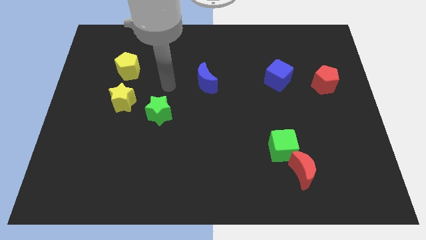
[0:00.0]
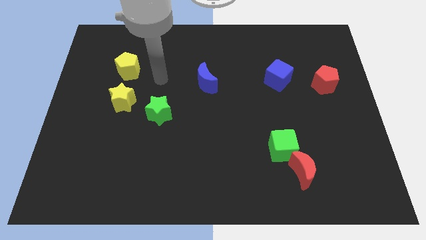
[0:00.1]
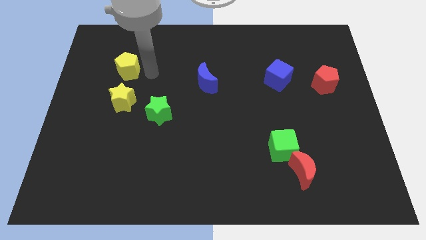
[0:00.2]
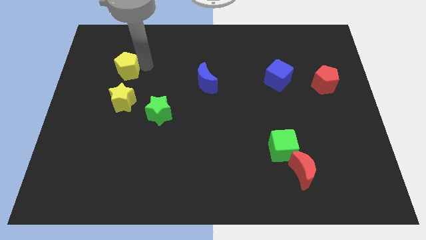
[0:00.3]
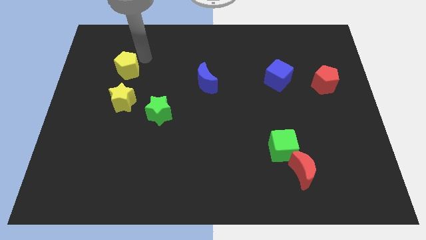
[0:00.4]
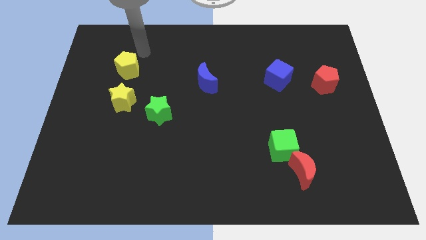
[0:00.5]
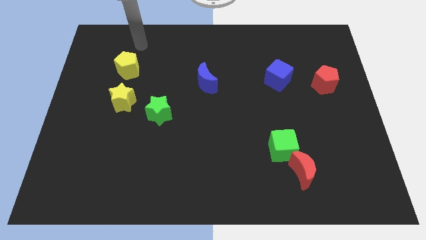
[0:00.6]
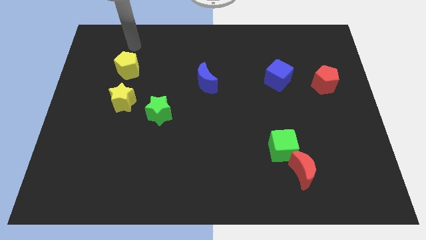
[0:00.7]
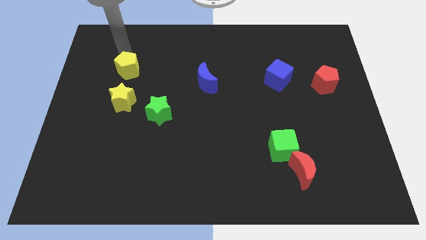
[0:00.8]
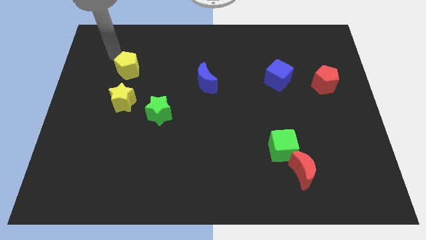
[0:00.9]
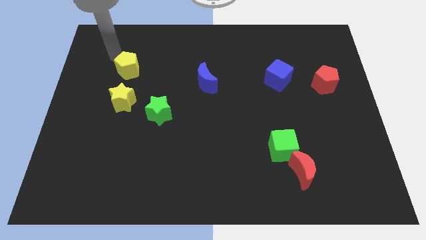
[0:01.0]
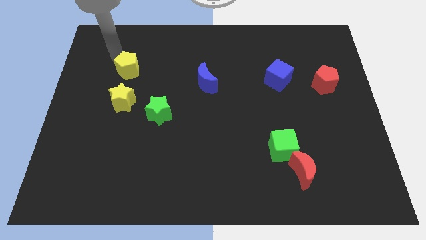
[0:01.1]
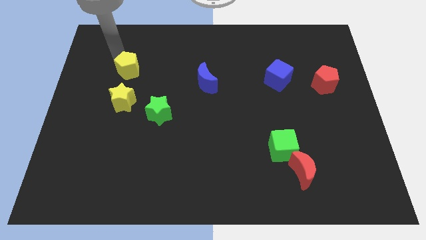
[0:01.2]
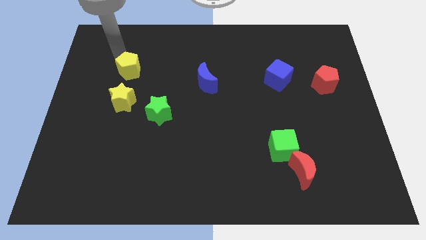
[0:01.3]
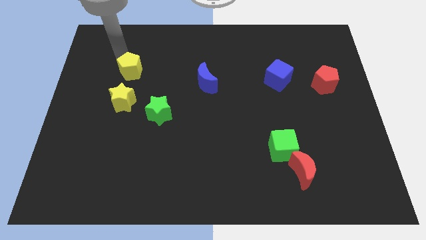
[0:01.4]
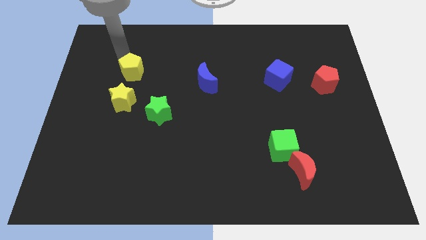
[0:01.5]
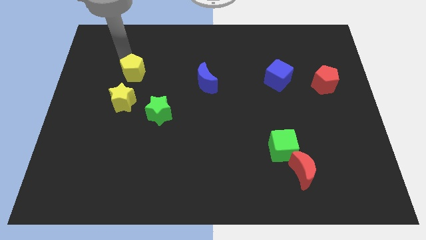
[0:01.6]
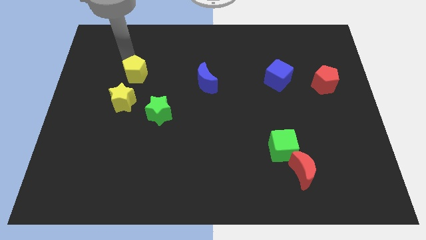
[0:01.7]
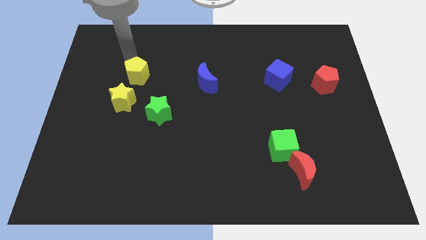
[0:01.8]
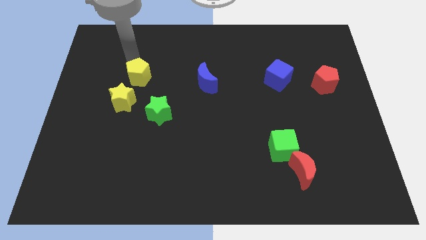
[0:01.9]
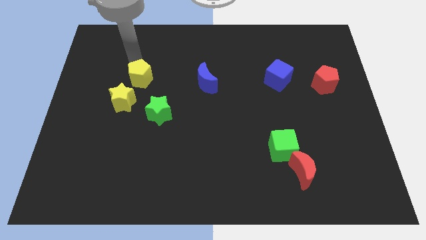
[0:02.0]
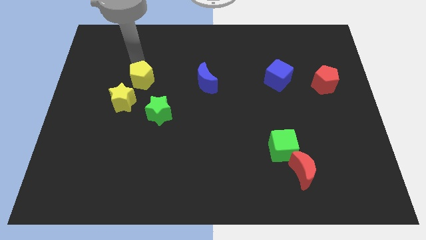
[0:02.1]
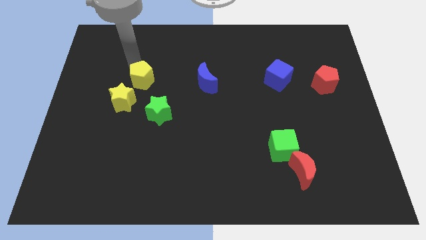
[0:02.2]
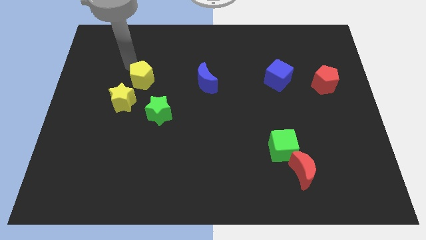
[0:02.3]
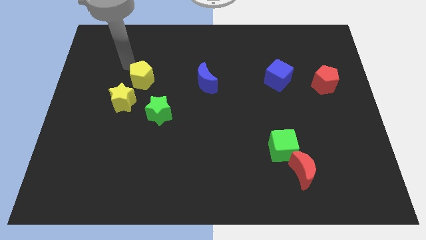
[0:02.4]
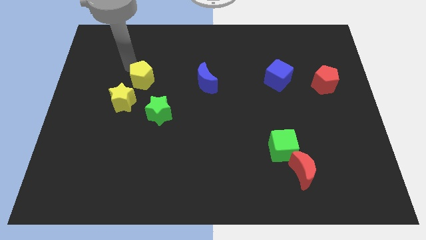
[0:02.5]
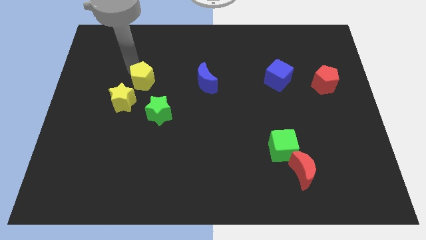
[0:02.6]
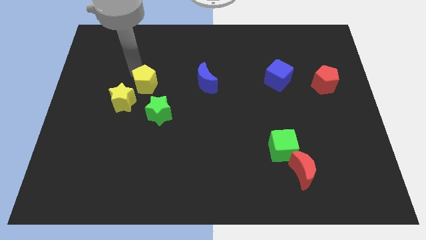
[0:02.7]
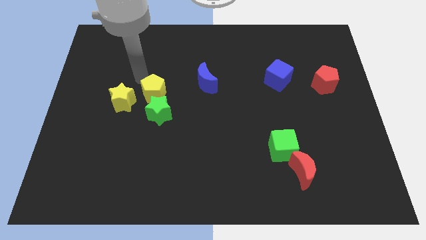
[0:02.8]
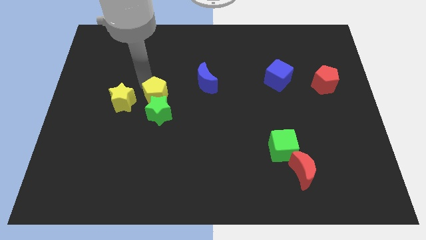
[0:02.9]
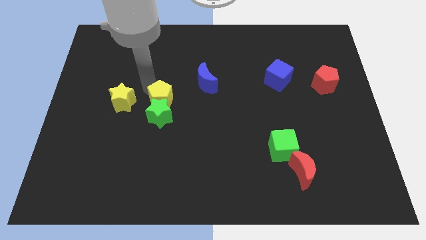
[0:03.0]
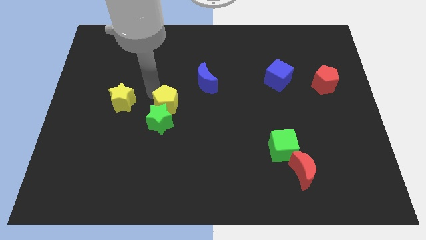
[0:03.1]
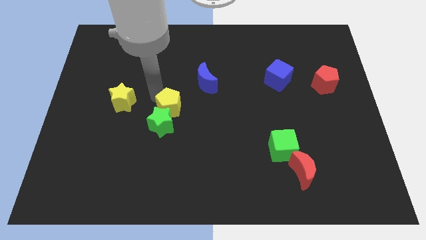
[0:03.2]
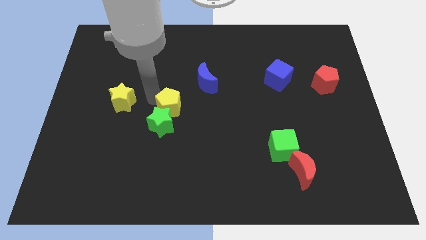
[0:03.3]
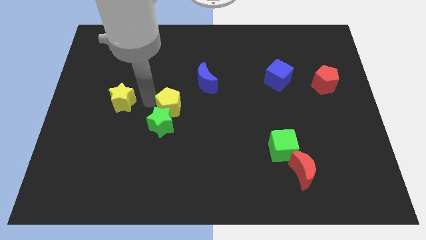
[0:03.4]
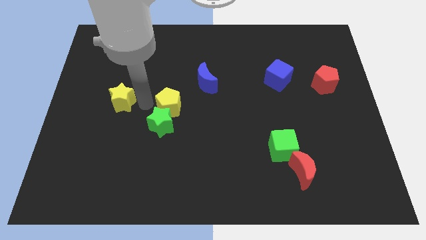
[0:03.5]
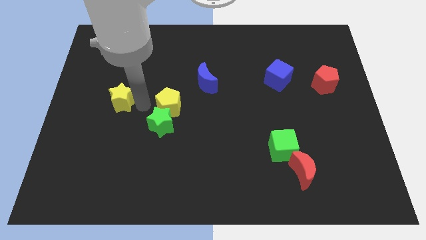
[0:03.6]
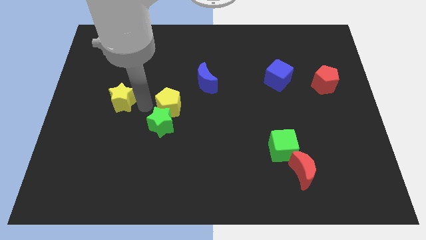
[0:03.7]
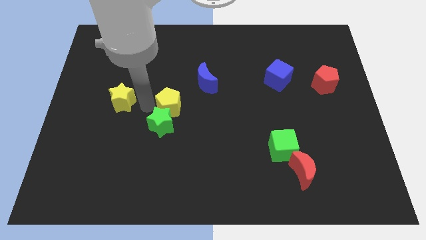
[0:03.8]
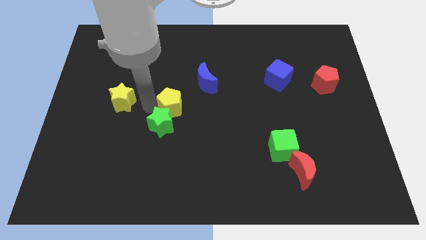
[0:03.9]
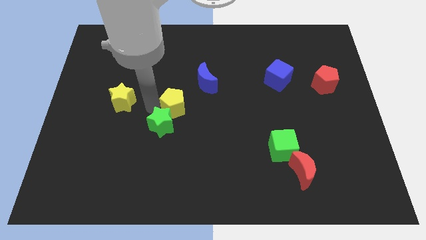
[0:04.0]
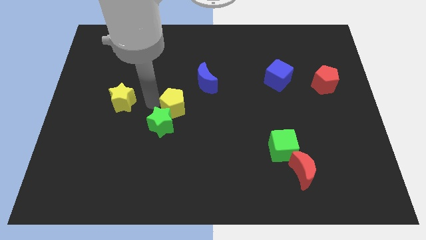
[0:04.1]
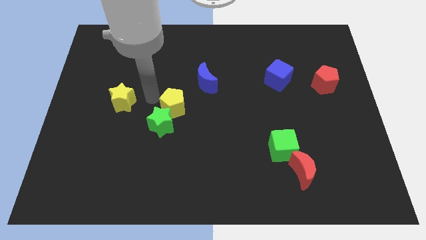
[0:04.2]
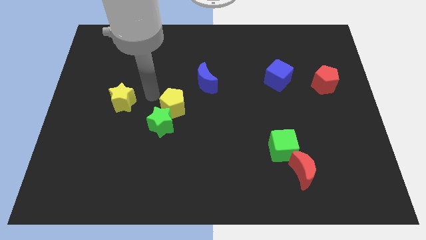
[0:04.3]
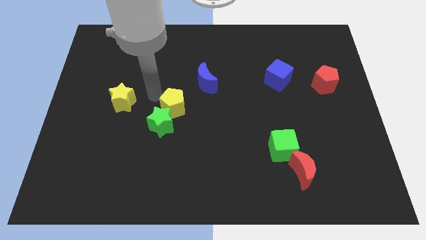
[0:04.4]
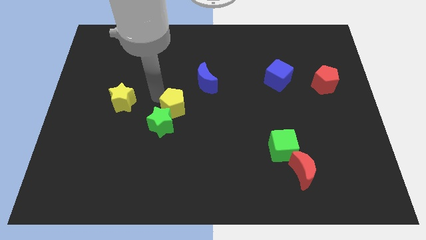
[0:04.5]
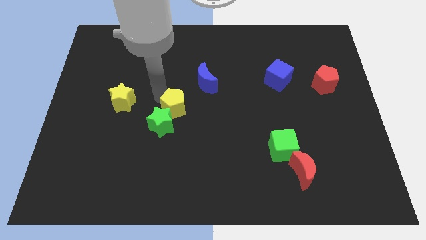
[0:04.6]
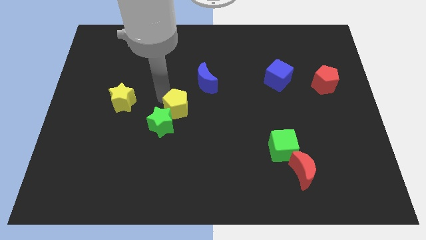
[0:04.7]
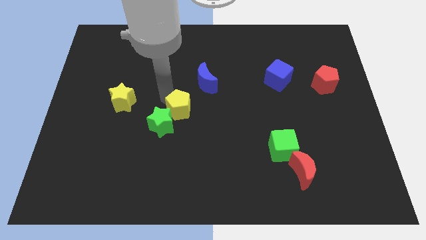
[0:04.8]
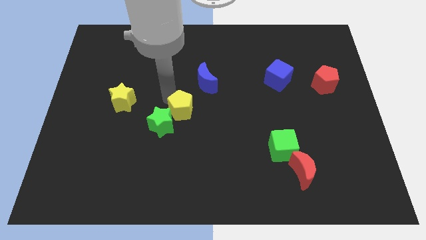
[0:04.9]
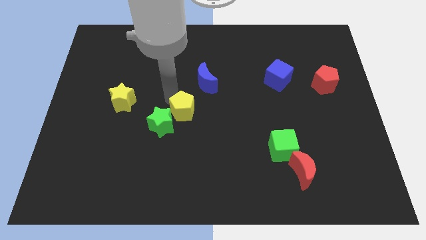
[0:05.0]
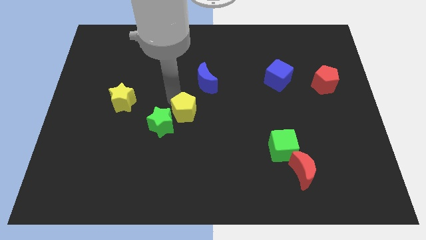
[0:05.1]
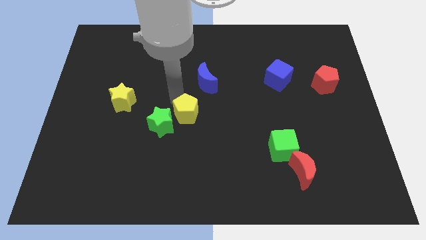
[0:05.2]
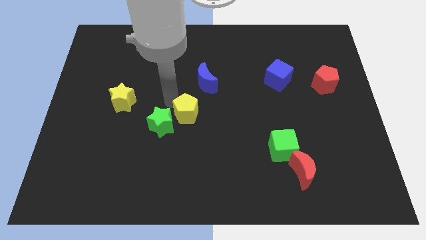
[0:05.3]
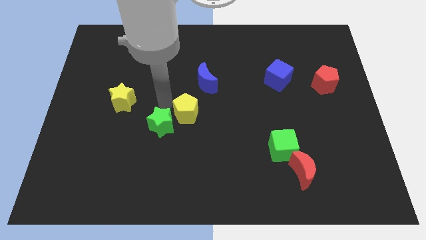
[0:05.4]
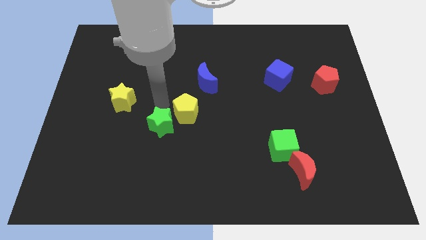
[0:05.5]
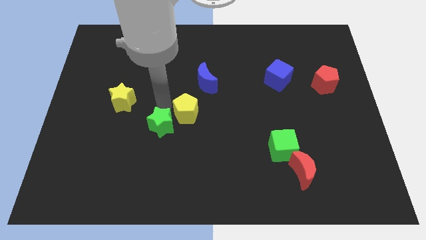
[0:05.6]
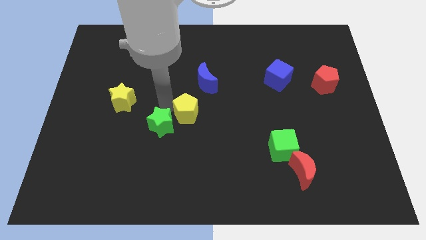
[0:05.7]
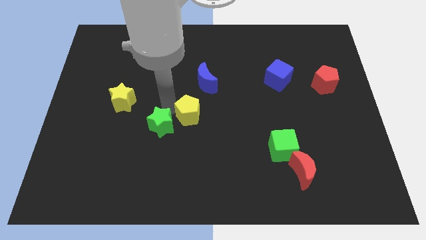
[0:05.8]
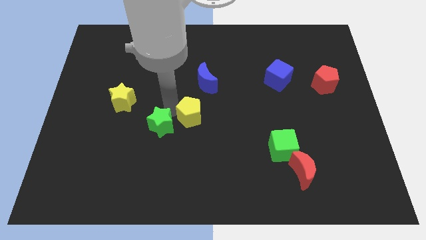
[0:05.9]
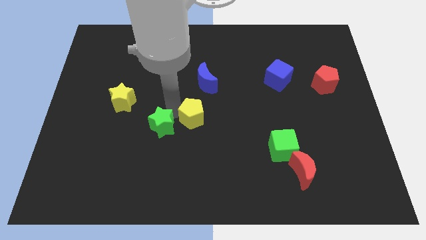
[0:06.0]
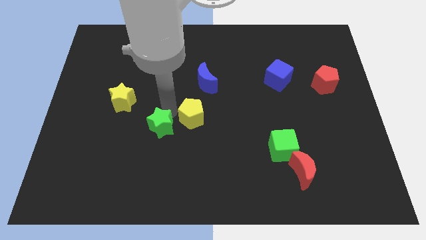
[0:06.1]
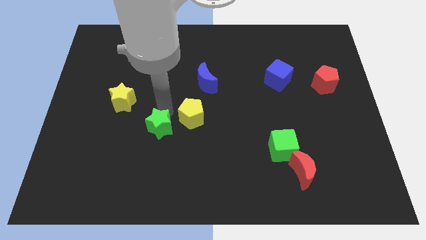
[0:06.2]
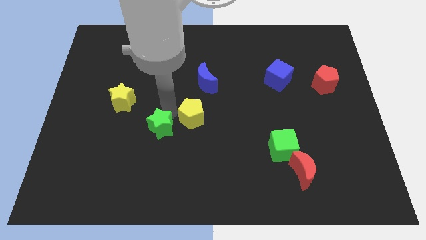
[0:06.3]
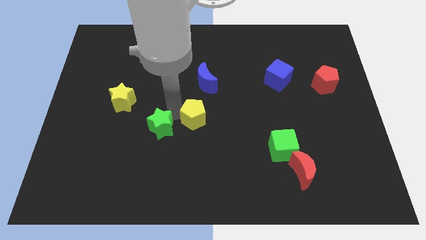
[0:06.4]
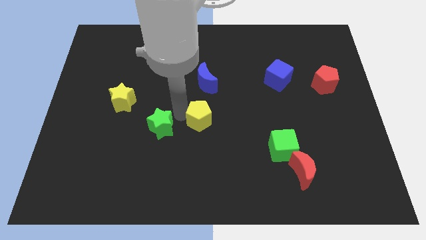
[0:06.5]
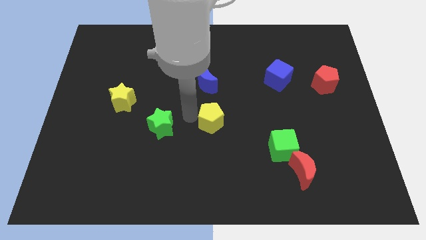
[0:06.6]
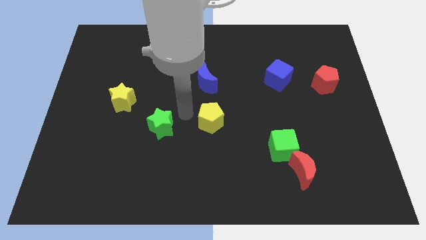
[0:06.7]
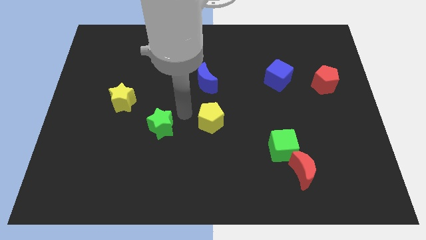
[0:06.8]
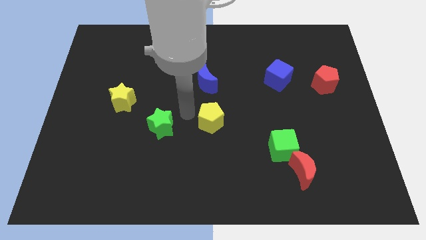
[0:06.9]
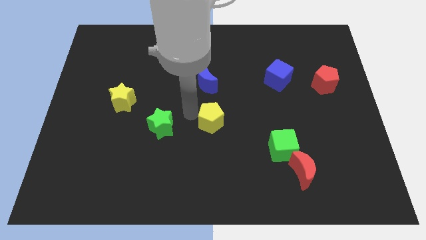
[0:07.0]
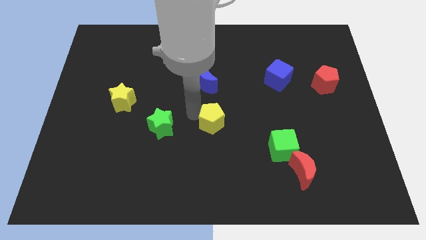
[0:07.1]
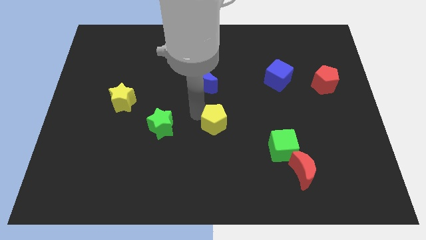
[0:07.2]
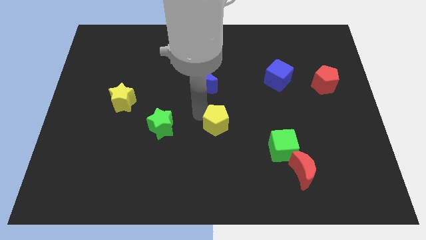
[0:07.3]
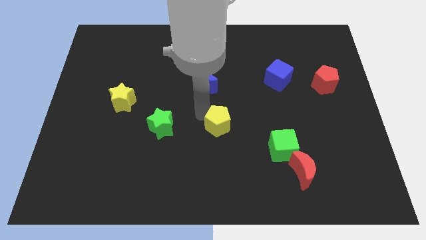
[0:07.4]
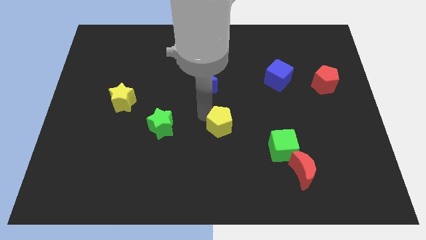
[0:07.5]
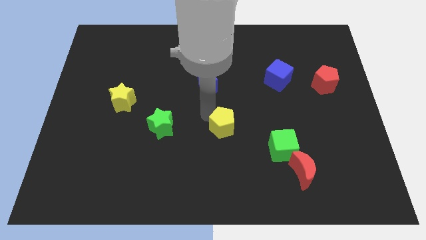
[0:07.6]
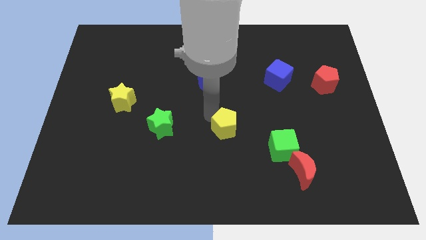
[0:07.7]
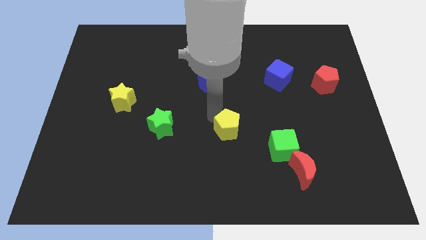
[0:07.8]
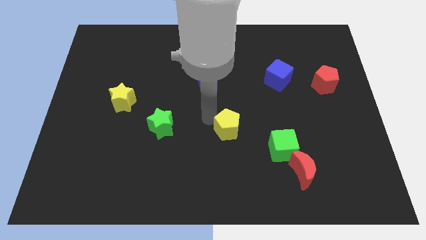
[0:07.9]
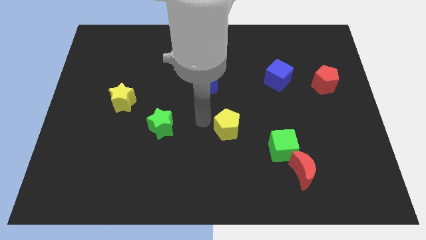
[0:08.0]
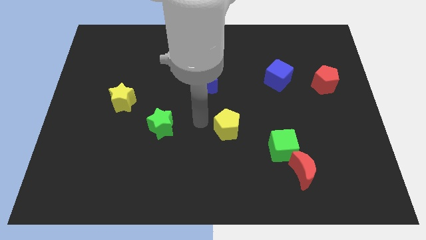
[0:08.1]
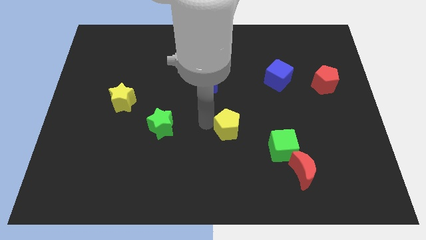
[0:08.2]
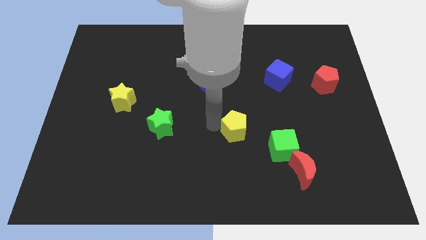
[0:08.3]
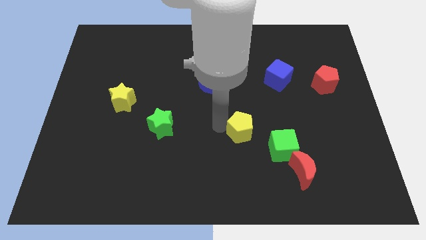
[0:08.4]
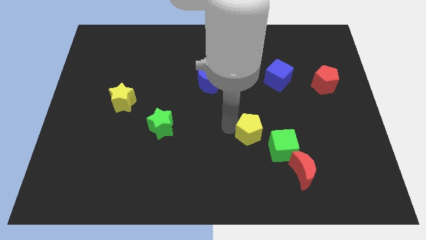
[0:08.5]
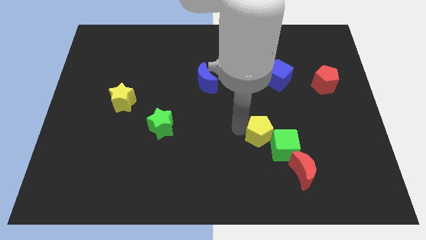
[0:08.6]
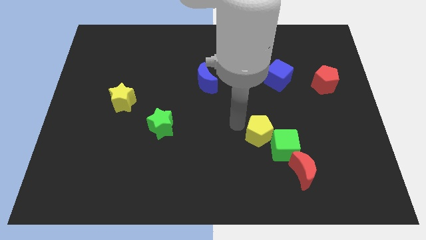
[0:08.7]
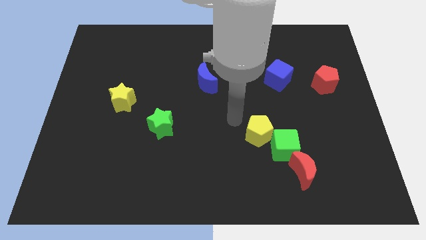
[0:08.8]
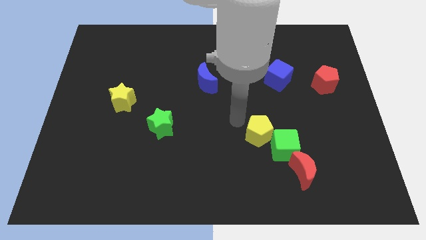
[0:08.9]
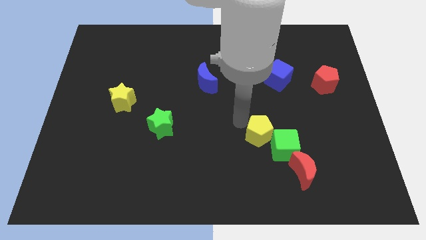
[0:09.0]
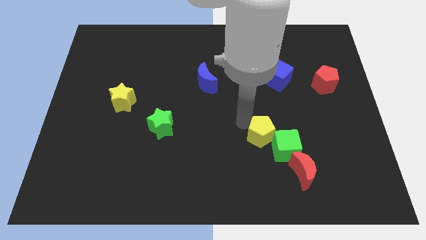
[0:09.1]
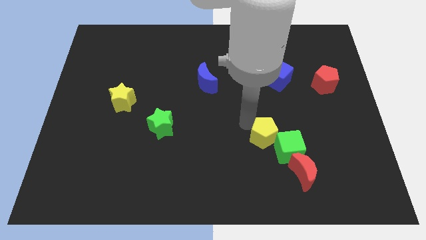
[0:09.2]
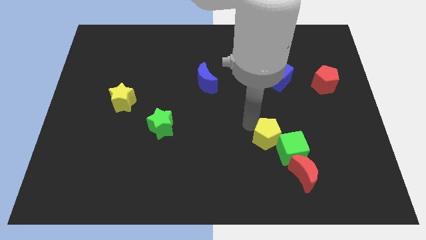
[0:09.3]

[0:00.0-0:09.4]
put the yellow pentagon close to the green cube
